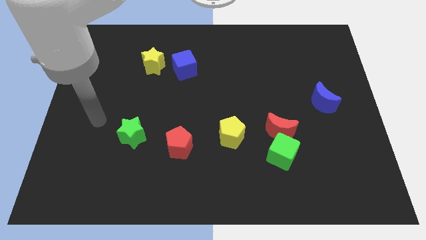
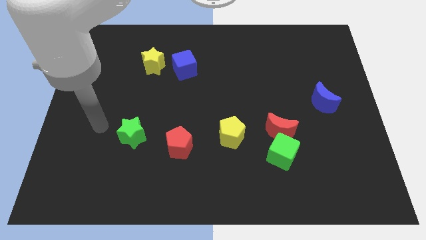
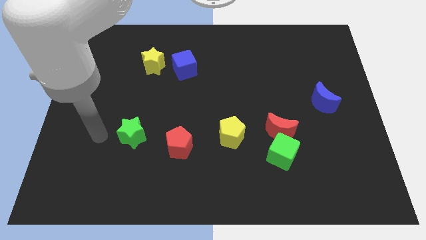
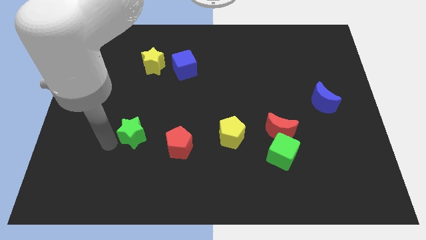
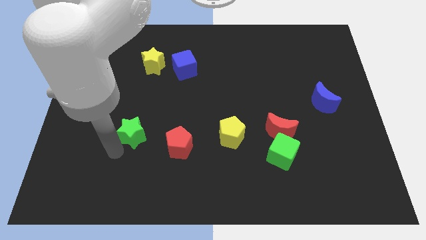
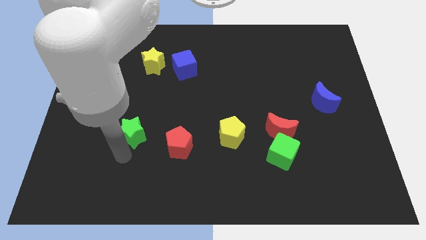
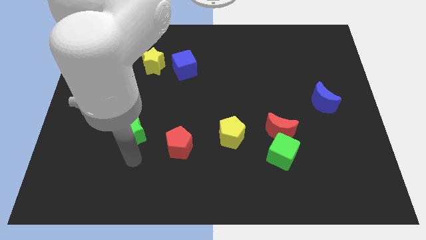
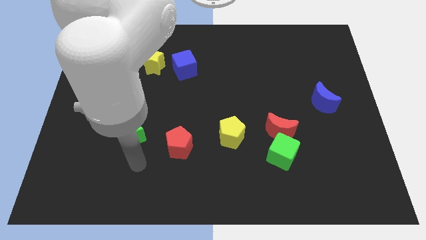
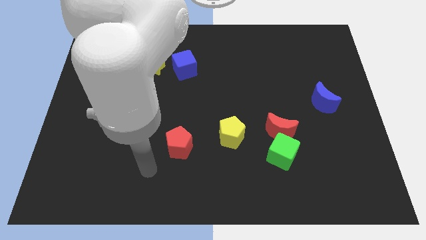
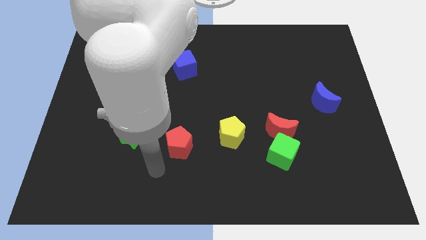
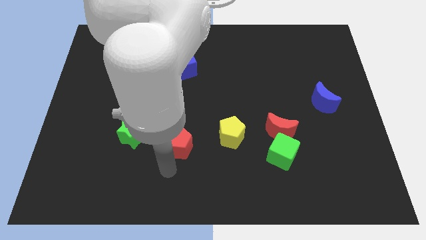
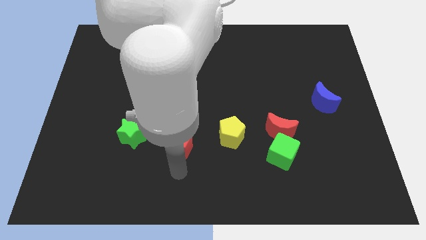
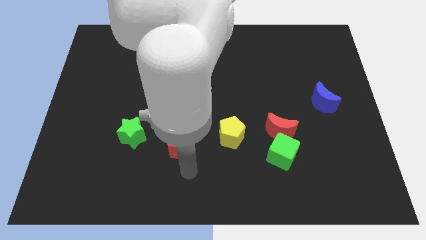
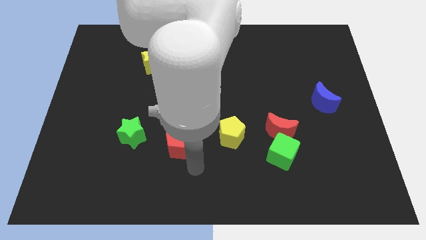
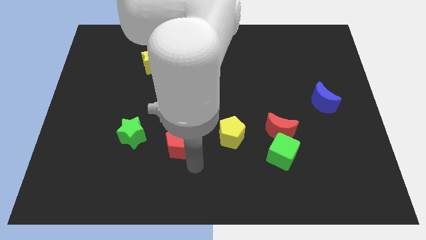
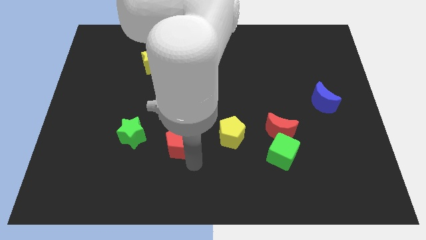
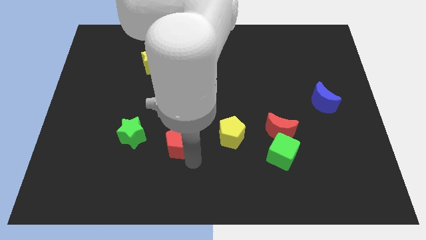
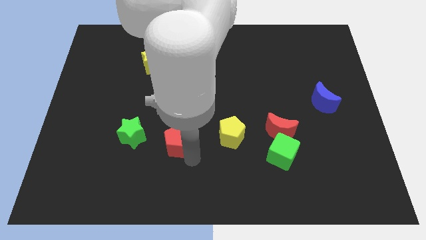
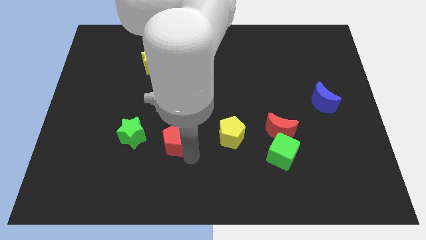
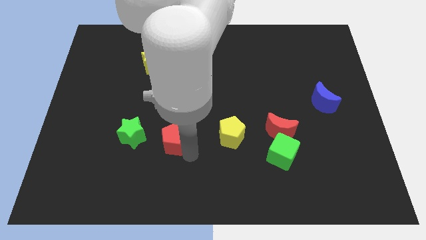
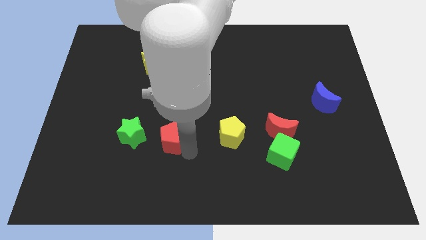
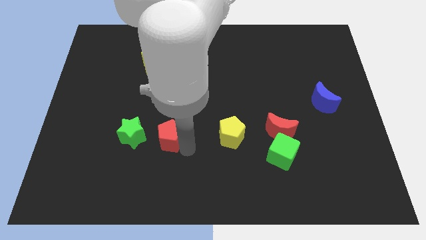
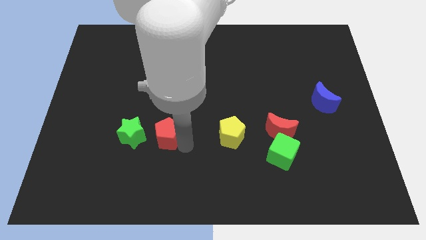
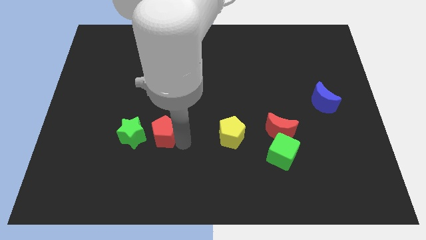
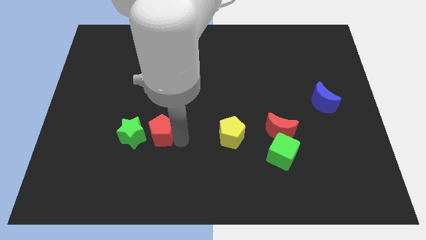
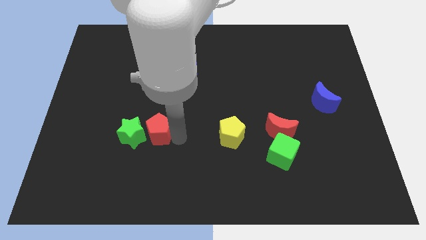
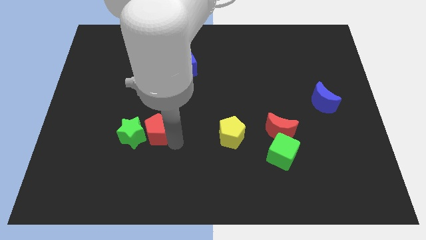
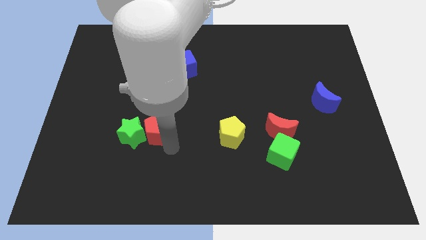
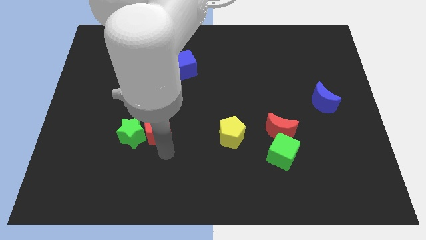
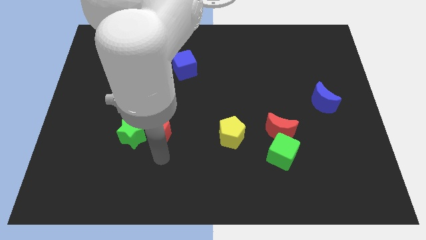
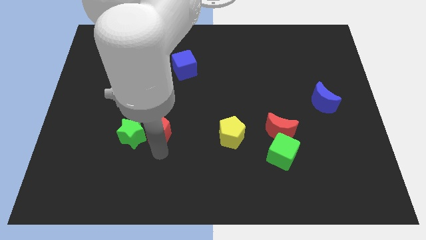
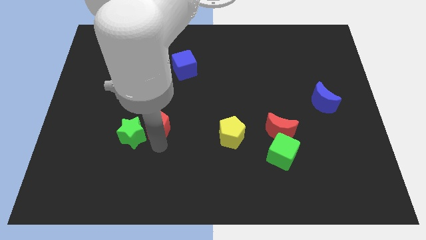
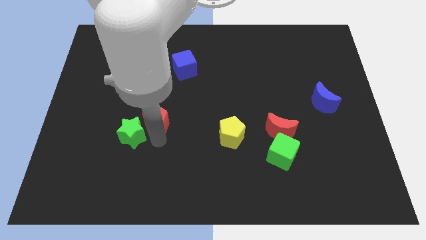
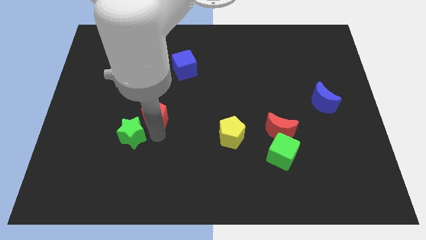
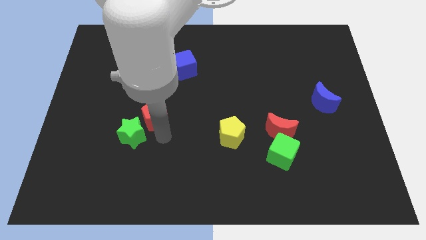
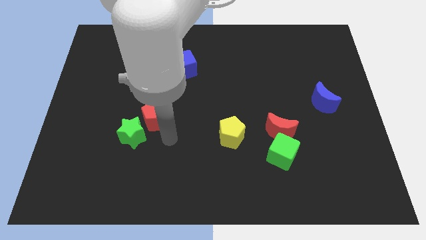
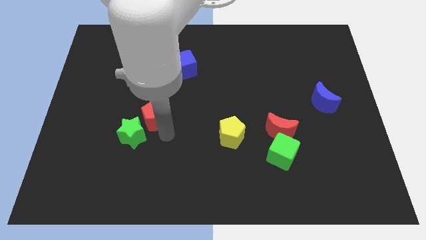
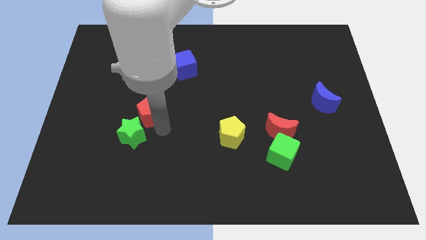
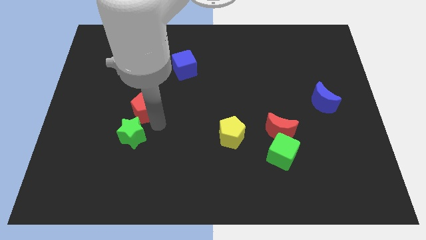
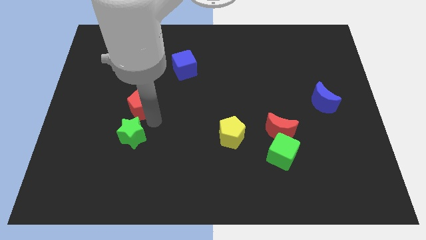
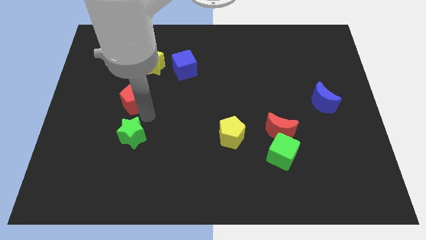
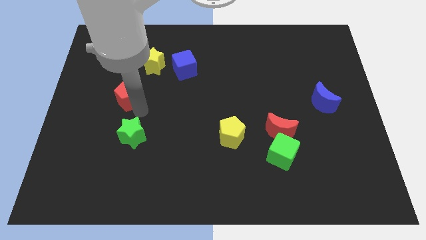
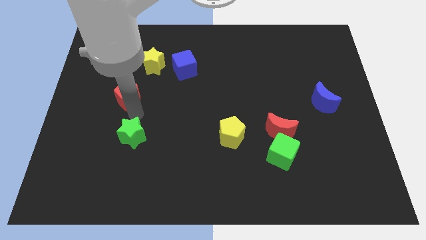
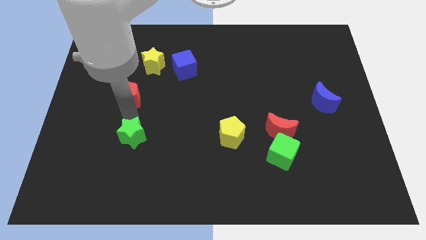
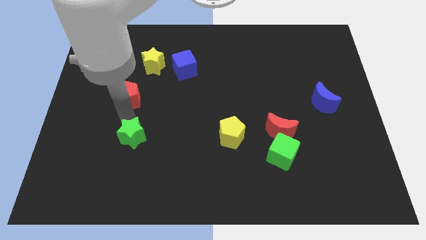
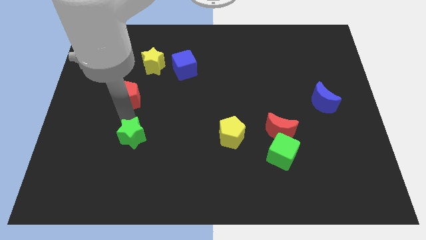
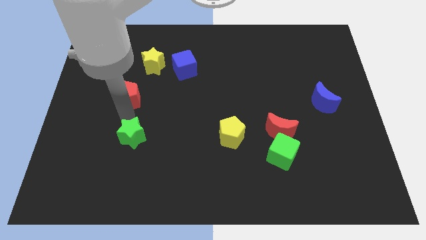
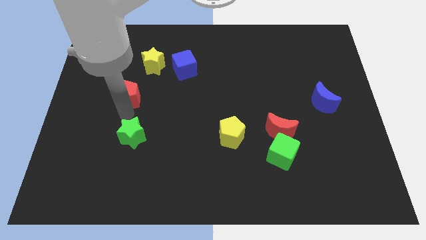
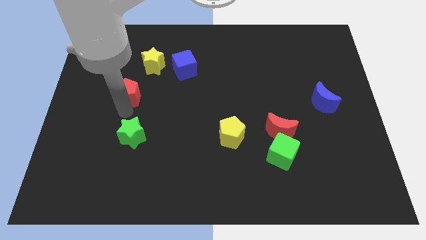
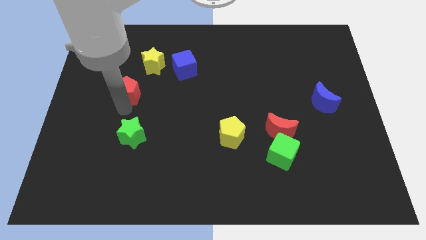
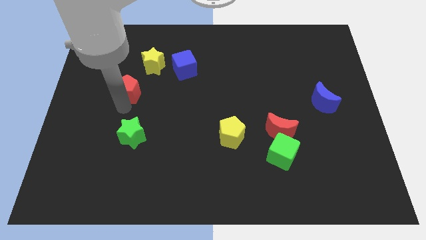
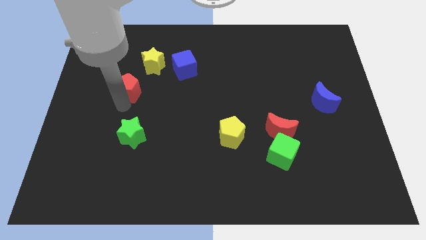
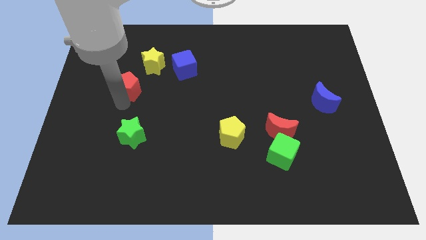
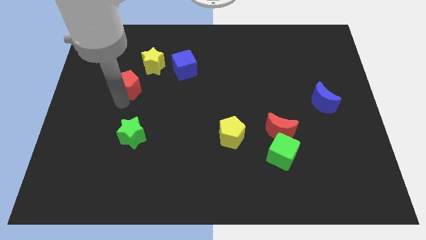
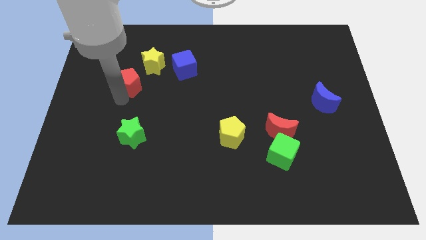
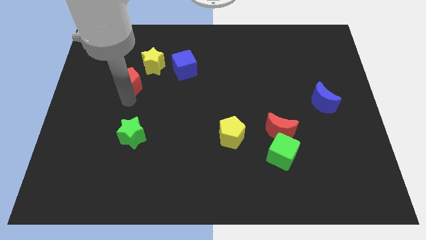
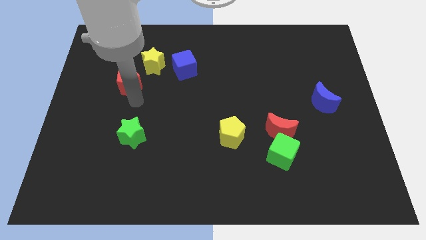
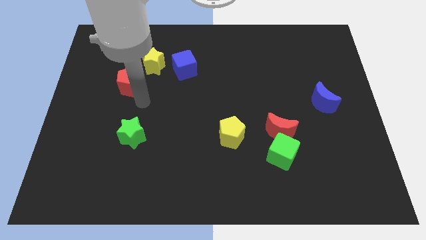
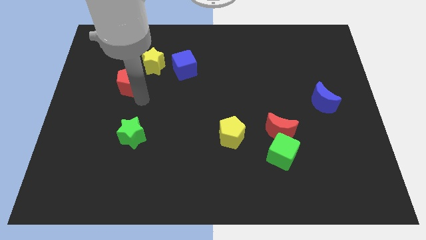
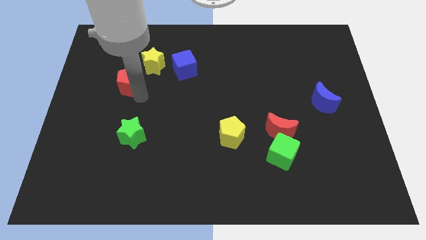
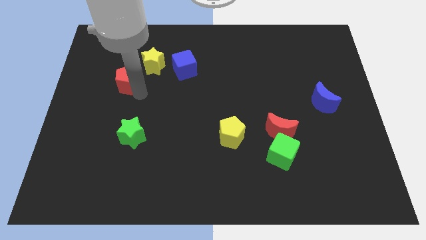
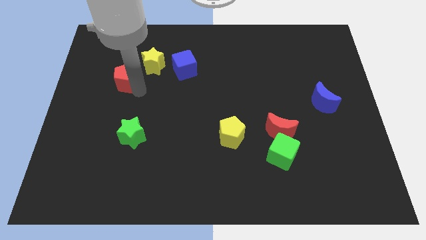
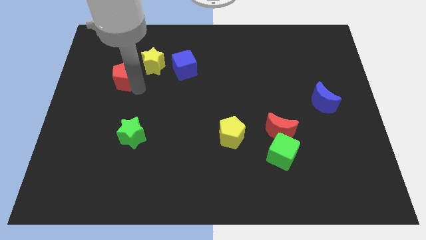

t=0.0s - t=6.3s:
put the red pentagon to the left of the yellow star

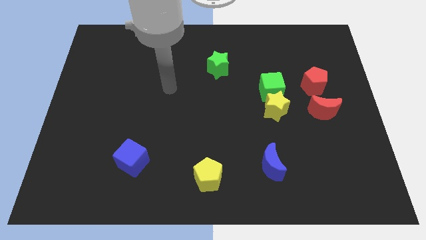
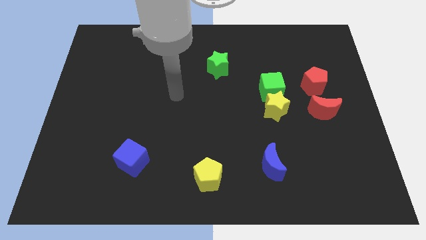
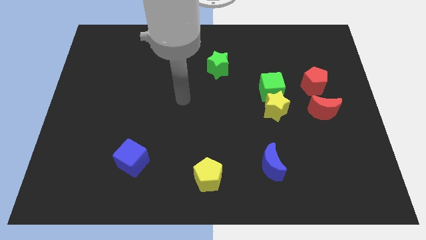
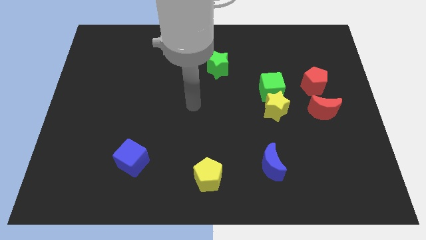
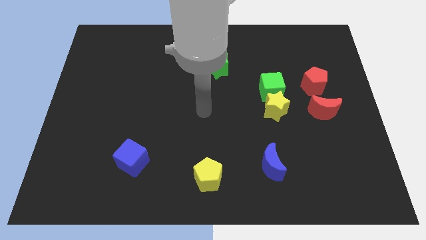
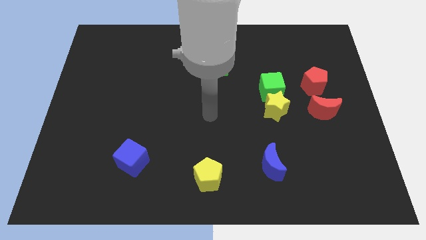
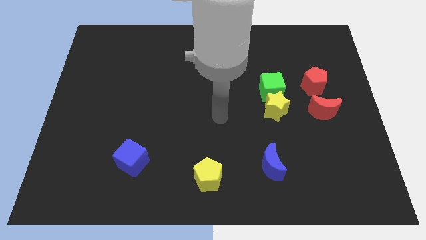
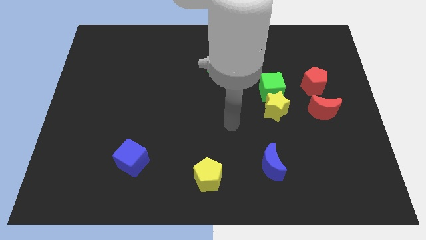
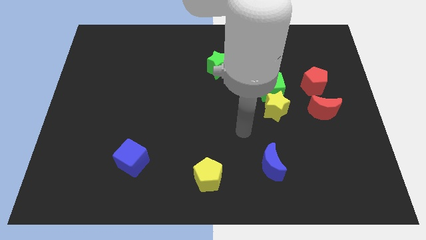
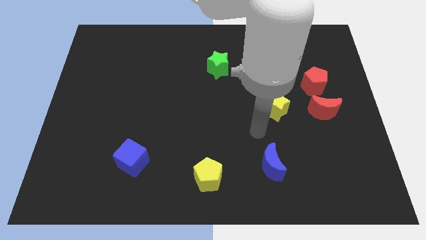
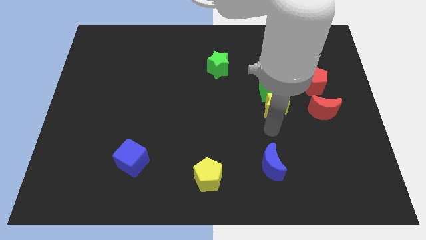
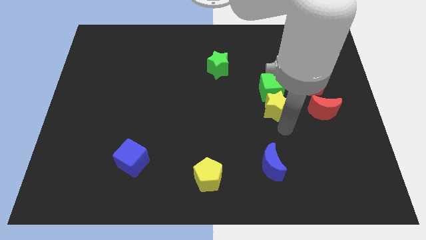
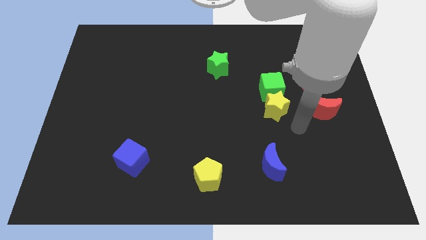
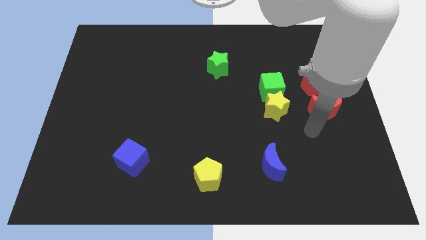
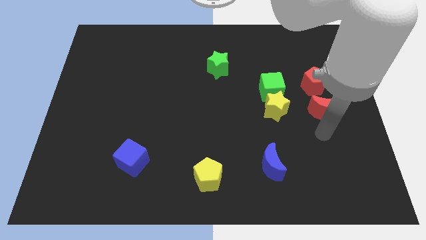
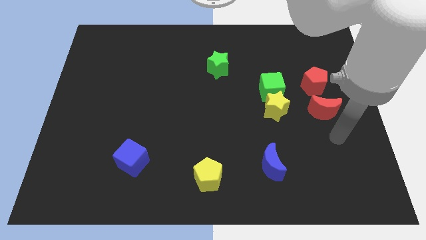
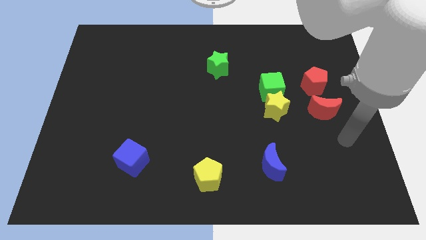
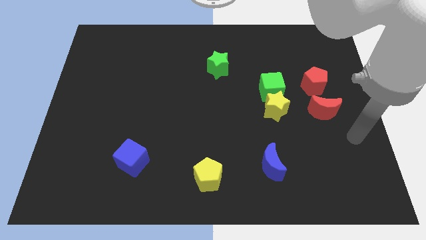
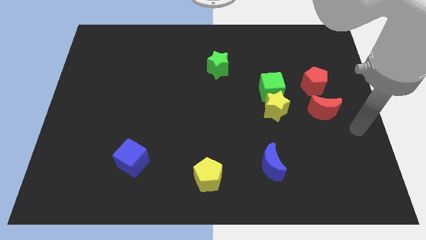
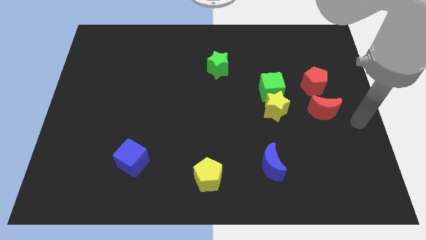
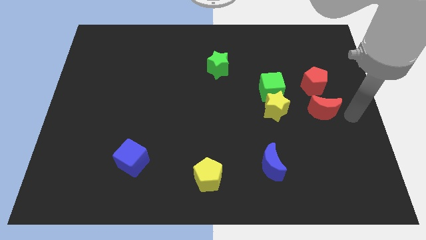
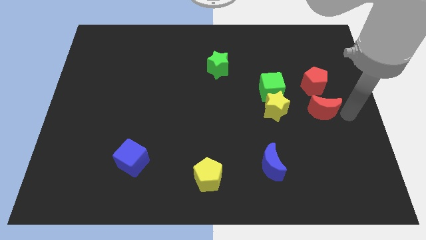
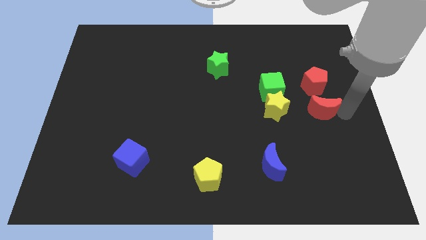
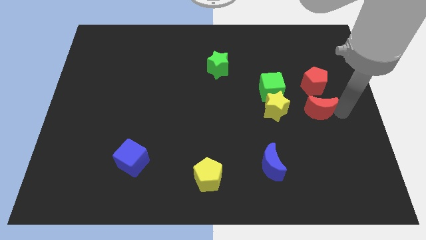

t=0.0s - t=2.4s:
slide the red moon diagonally down and to the right of the green cube
